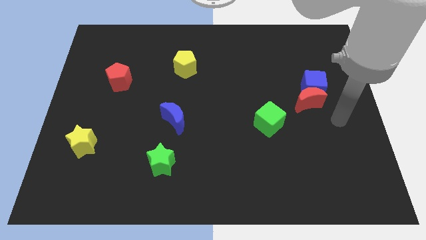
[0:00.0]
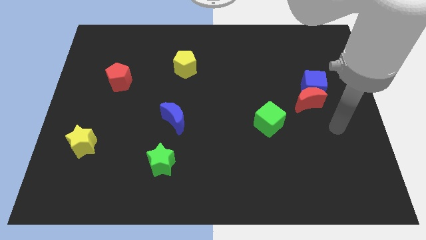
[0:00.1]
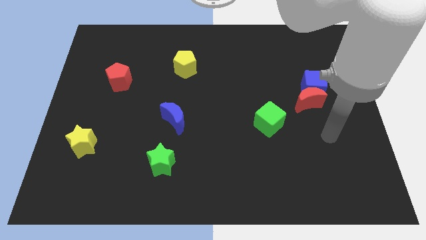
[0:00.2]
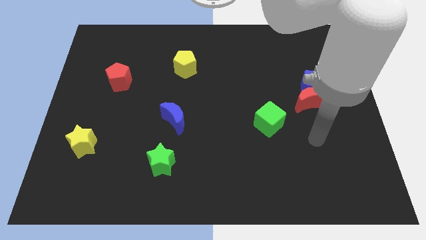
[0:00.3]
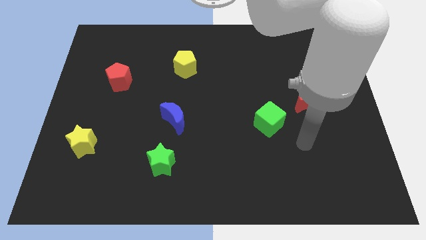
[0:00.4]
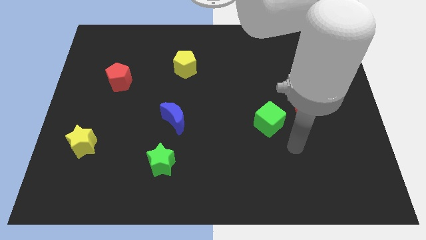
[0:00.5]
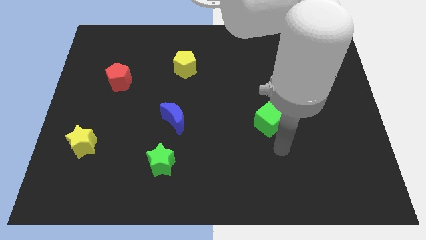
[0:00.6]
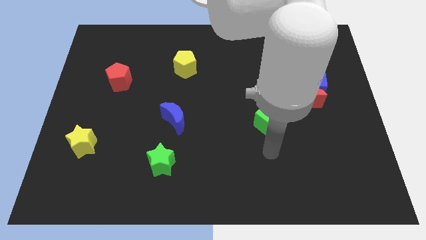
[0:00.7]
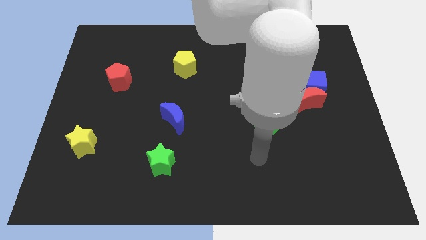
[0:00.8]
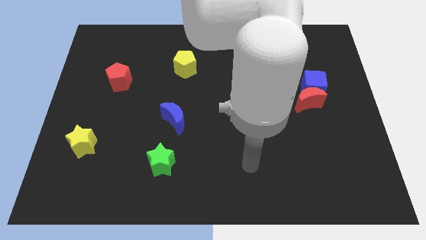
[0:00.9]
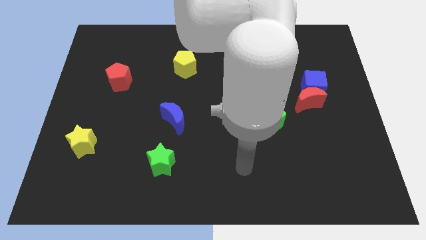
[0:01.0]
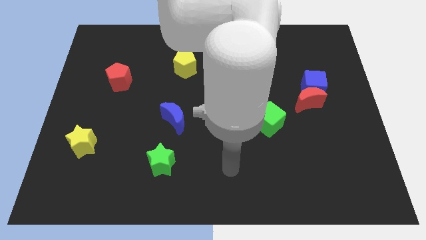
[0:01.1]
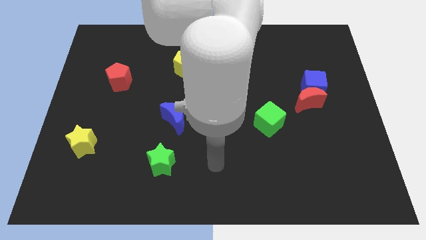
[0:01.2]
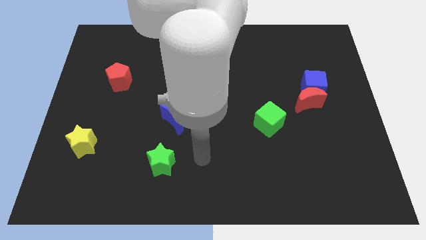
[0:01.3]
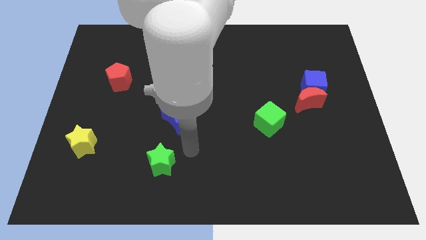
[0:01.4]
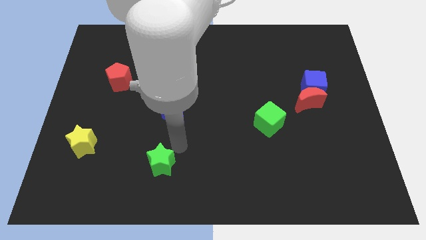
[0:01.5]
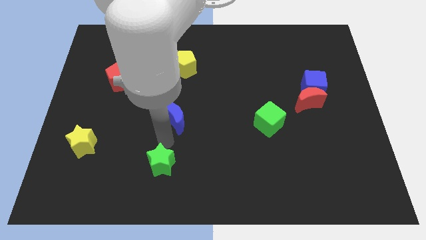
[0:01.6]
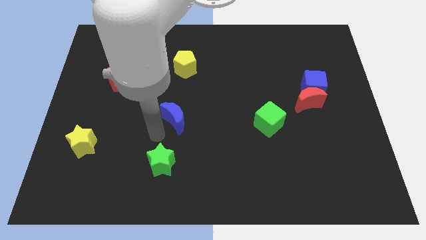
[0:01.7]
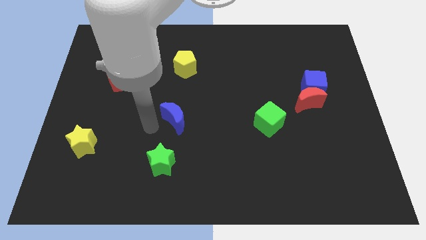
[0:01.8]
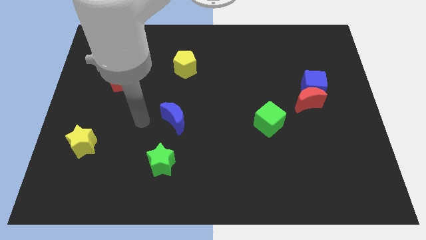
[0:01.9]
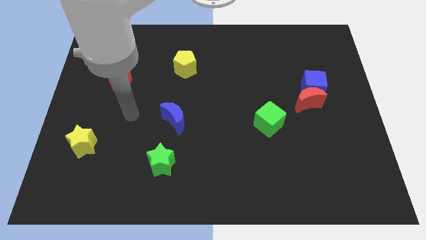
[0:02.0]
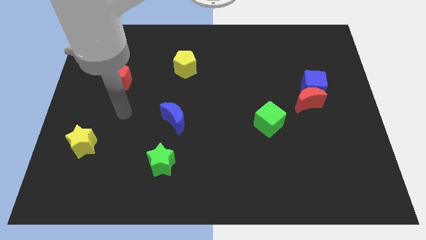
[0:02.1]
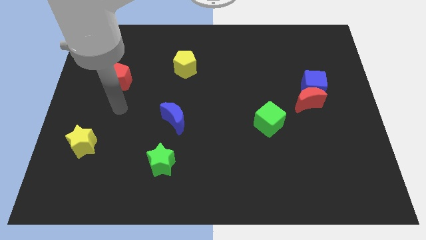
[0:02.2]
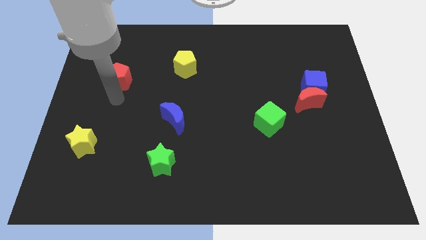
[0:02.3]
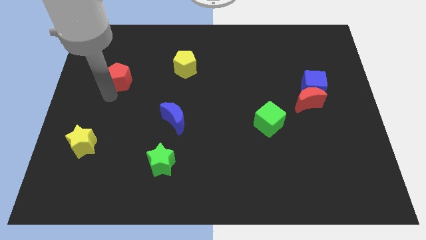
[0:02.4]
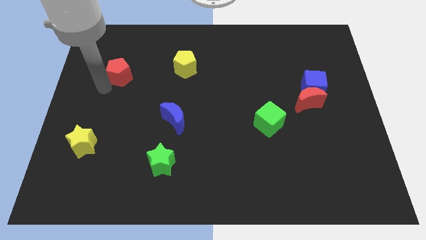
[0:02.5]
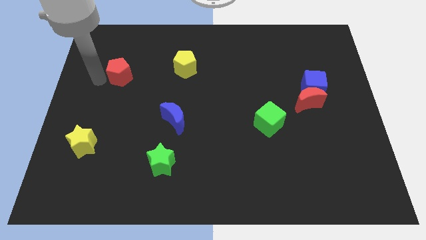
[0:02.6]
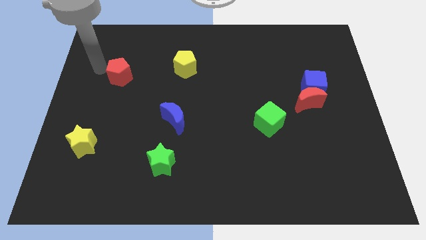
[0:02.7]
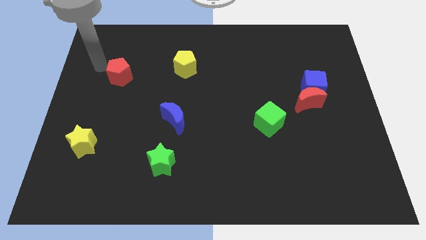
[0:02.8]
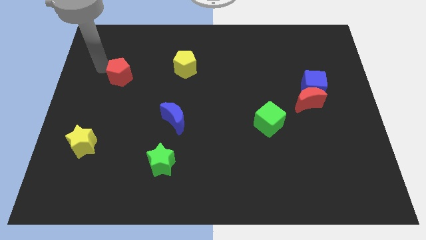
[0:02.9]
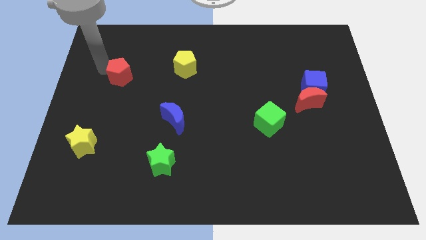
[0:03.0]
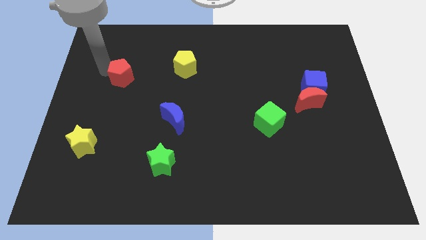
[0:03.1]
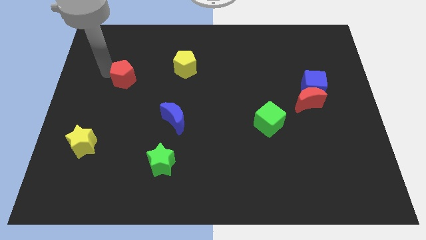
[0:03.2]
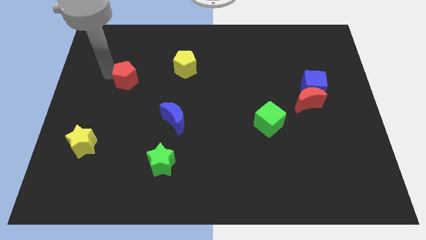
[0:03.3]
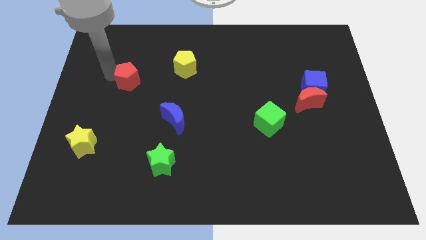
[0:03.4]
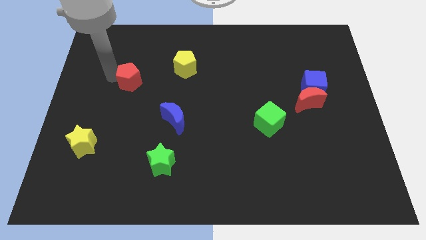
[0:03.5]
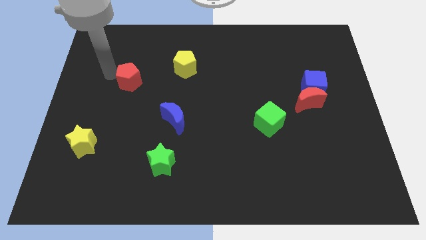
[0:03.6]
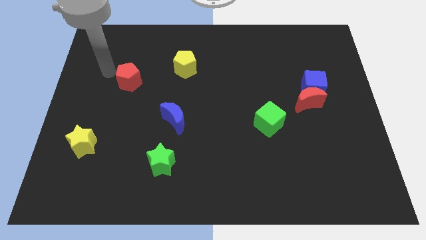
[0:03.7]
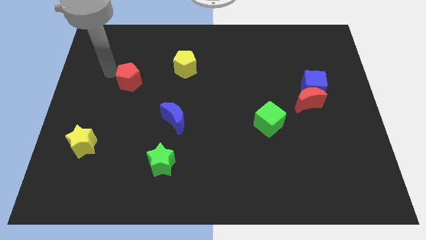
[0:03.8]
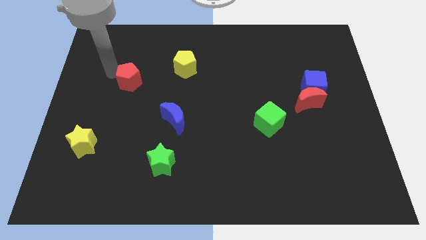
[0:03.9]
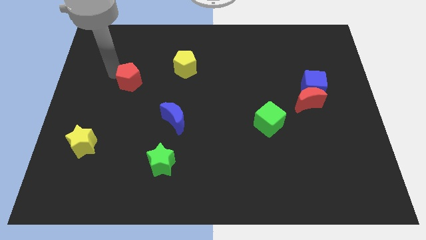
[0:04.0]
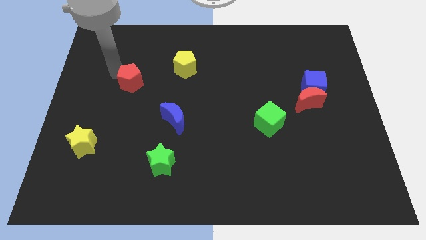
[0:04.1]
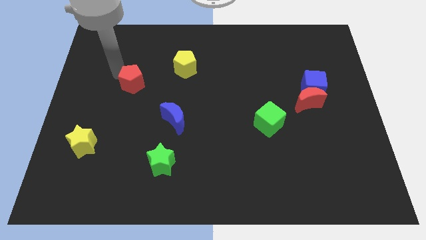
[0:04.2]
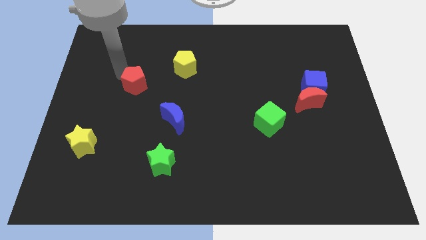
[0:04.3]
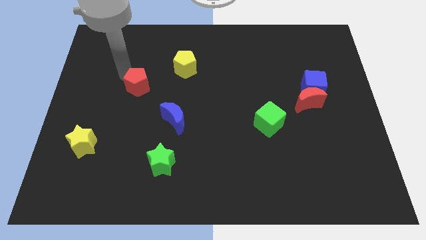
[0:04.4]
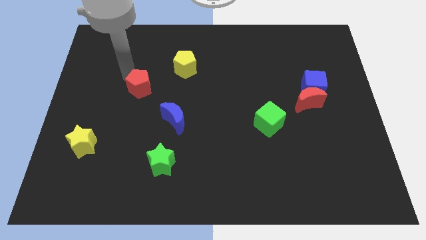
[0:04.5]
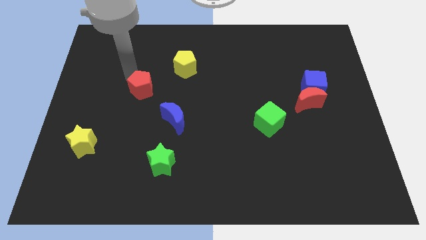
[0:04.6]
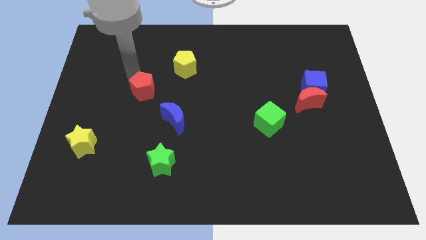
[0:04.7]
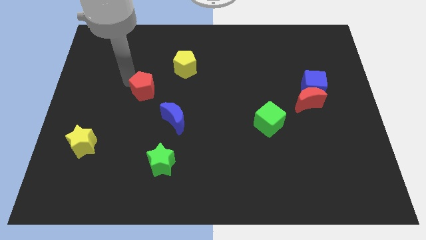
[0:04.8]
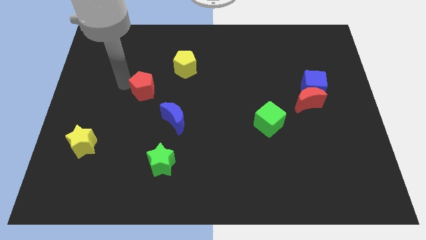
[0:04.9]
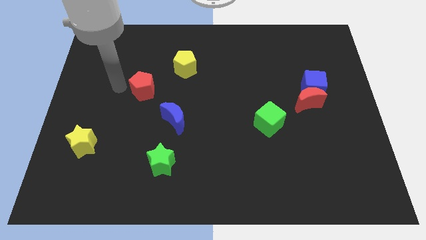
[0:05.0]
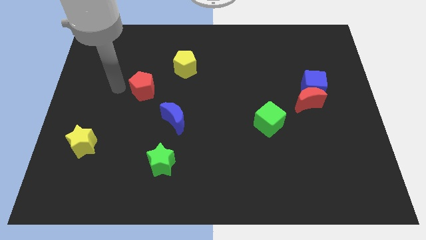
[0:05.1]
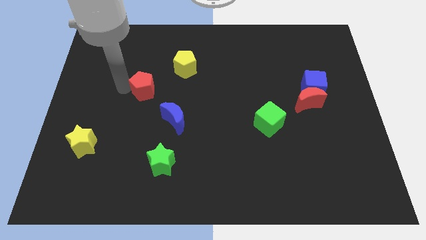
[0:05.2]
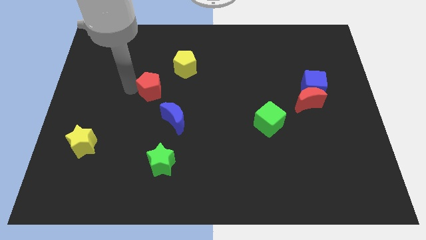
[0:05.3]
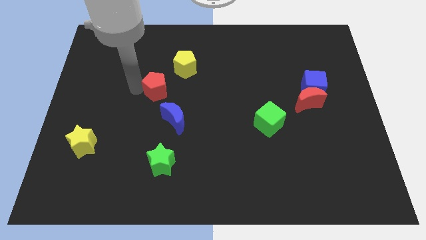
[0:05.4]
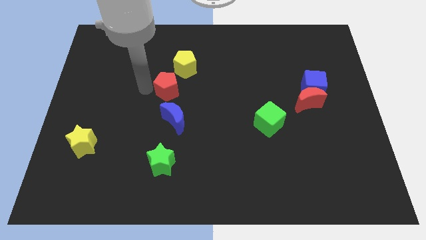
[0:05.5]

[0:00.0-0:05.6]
slide the red pentagon to the middle
